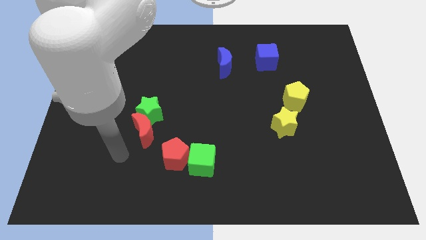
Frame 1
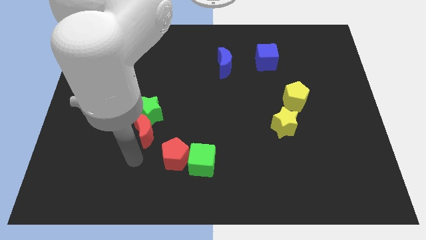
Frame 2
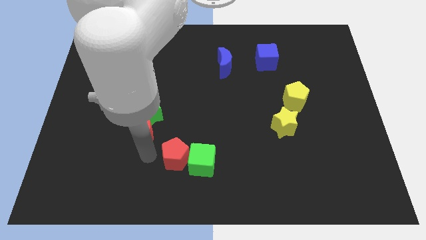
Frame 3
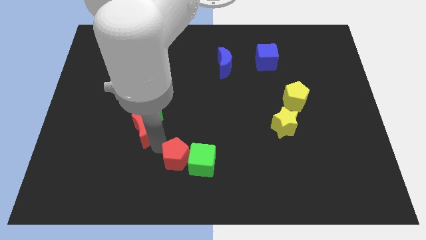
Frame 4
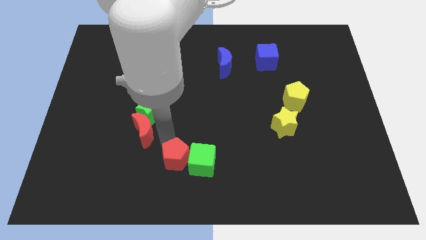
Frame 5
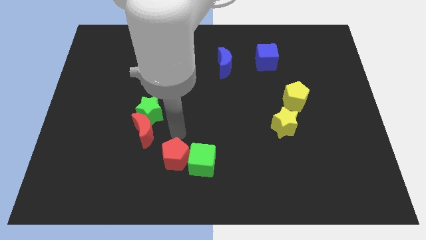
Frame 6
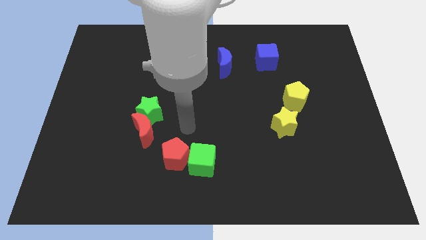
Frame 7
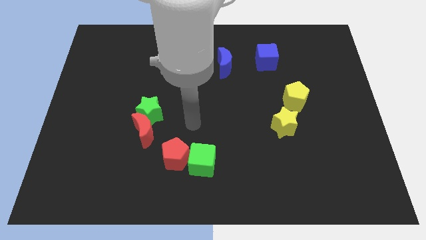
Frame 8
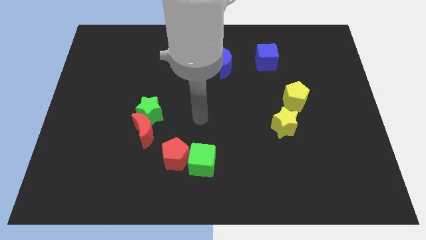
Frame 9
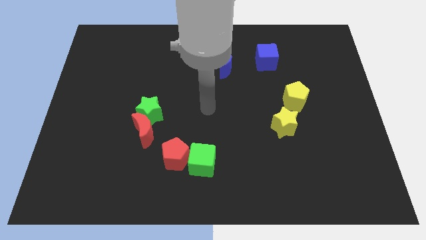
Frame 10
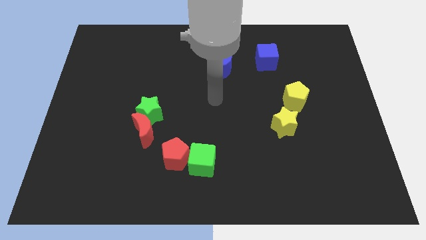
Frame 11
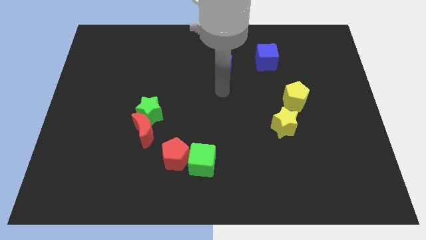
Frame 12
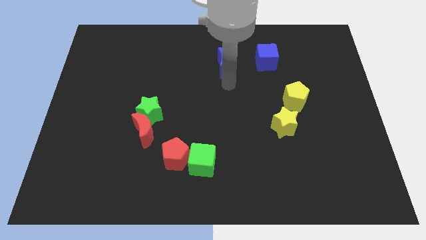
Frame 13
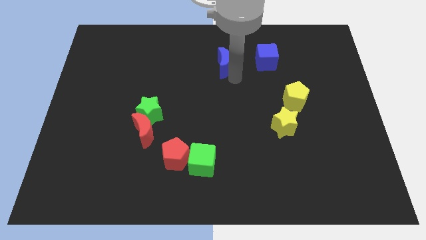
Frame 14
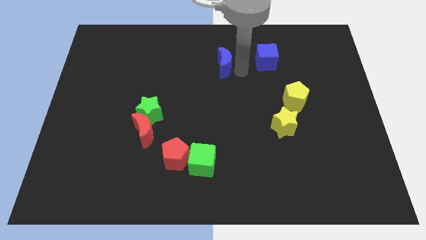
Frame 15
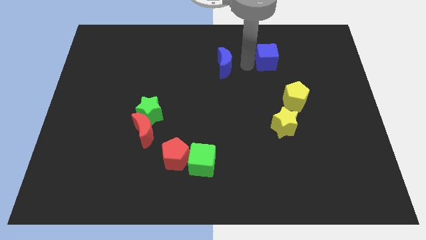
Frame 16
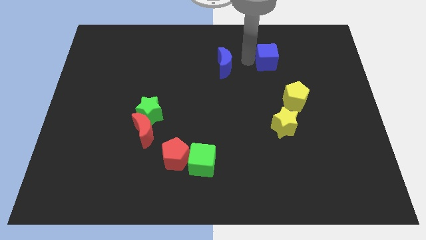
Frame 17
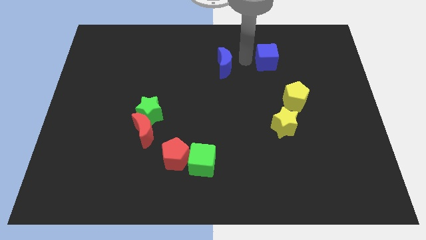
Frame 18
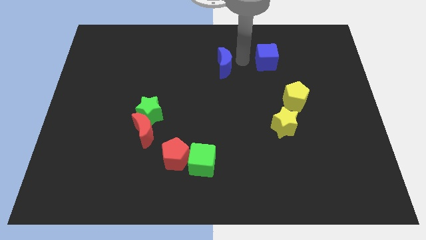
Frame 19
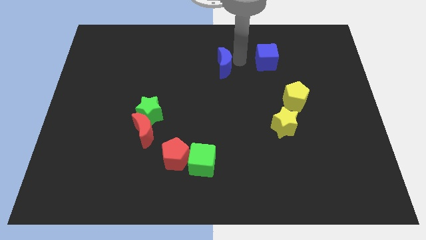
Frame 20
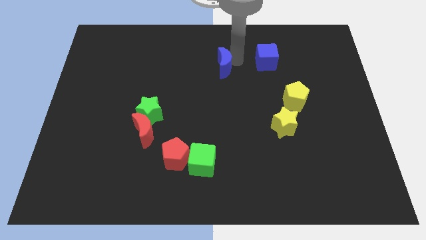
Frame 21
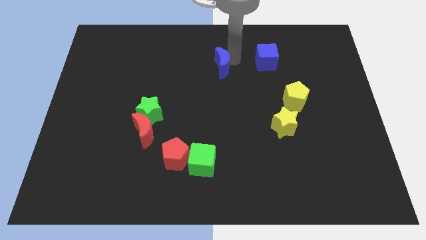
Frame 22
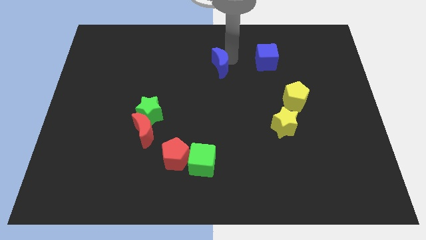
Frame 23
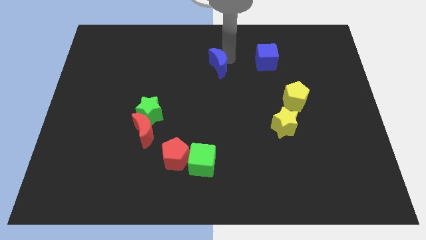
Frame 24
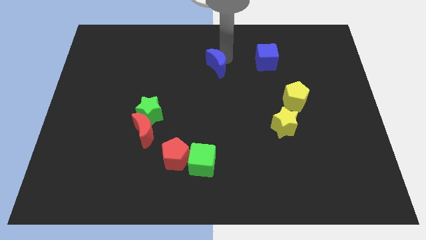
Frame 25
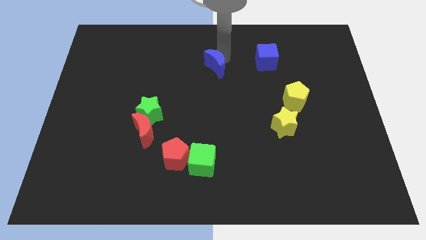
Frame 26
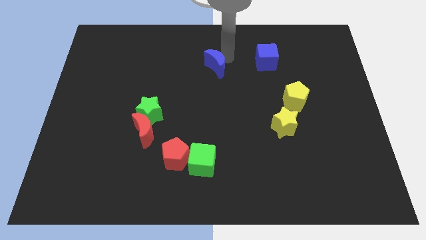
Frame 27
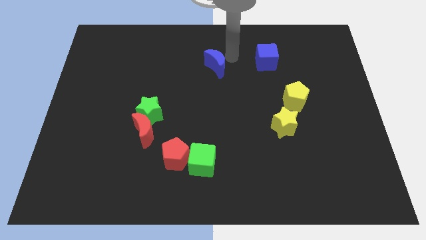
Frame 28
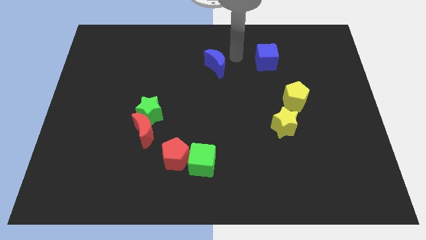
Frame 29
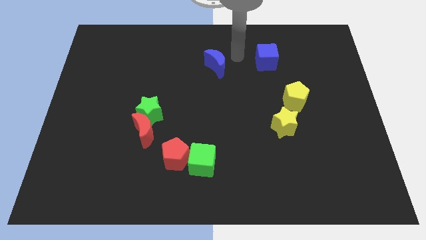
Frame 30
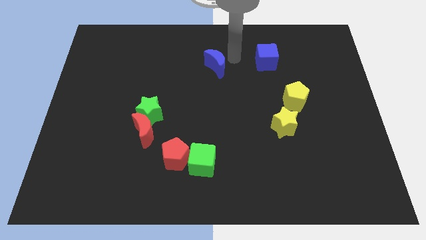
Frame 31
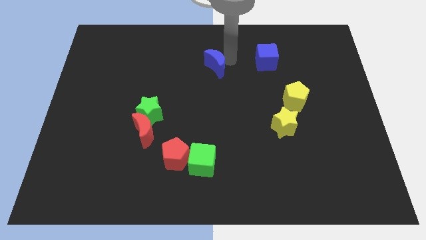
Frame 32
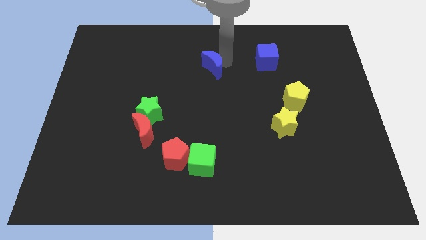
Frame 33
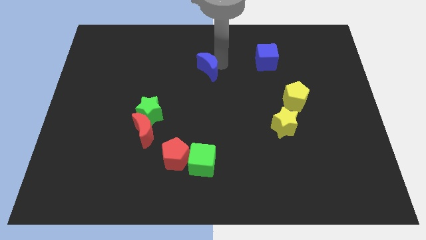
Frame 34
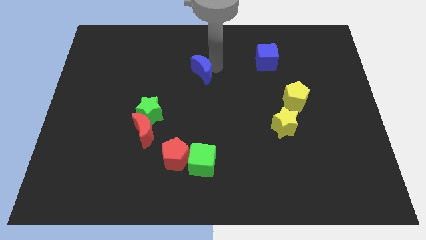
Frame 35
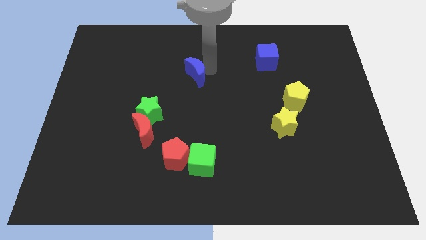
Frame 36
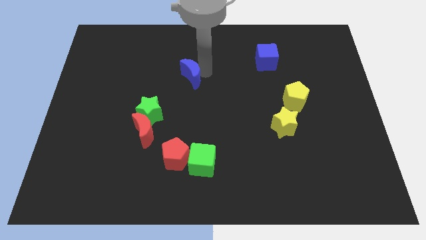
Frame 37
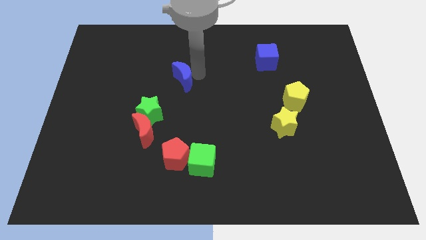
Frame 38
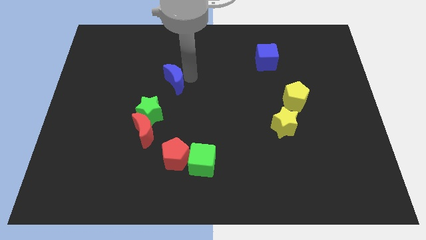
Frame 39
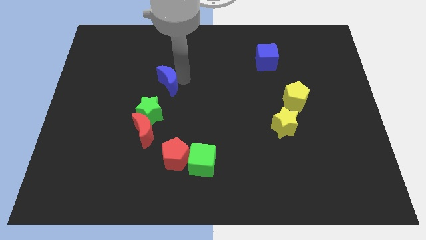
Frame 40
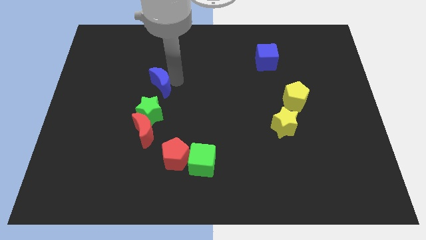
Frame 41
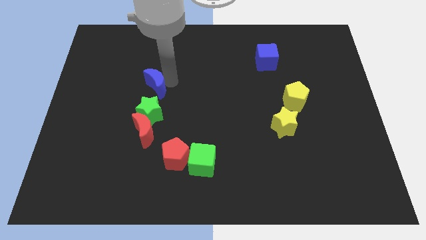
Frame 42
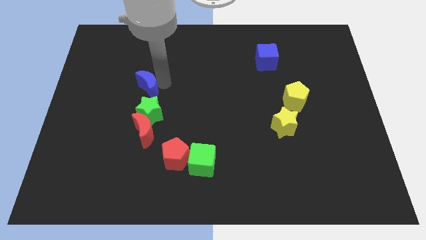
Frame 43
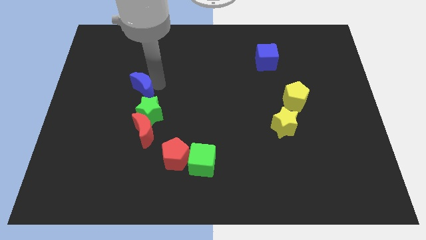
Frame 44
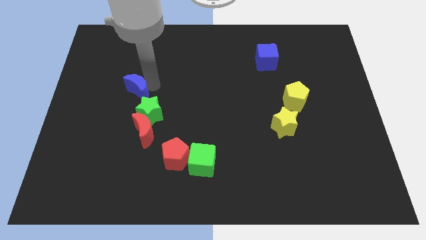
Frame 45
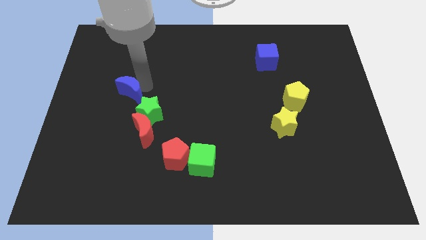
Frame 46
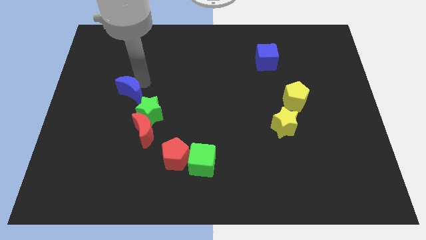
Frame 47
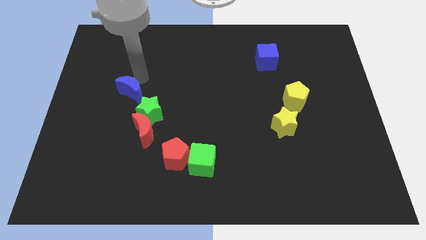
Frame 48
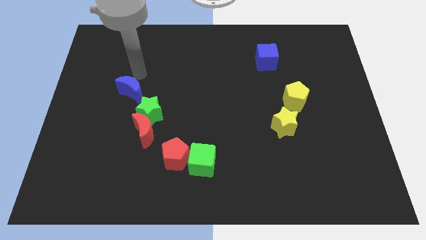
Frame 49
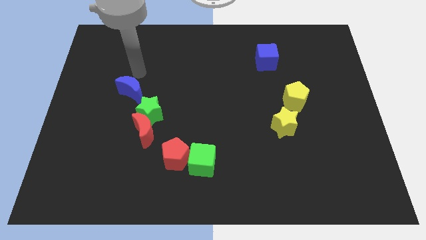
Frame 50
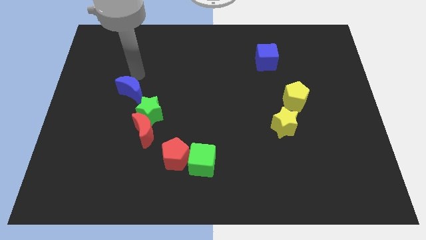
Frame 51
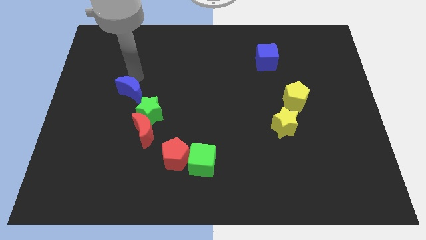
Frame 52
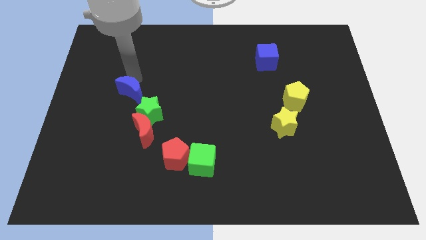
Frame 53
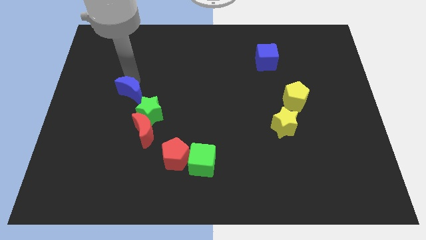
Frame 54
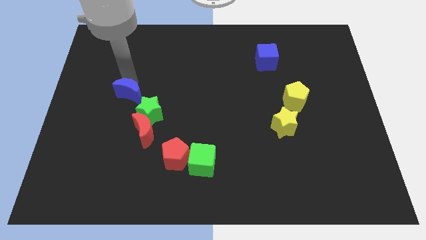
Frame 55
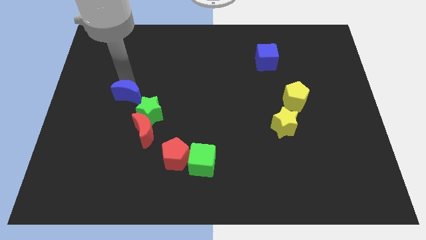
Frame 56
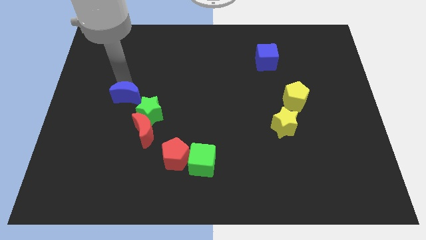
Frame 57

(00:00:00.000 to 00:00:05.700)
put the blue moon to the top left side of the red moon

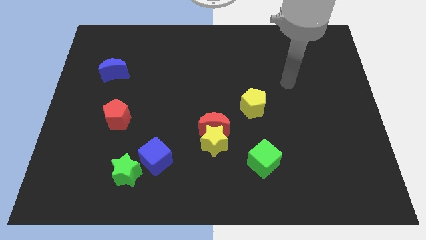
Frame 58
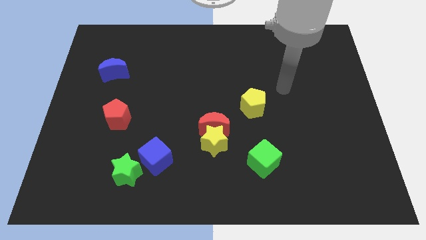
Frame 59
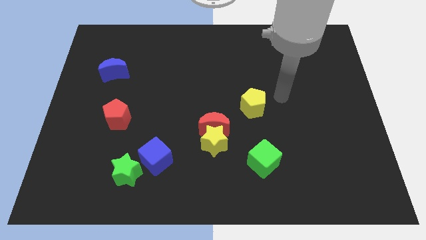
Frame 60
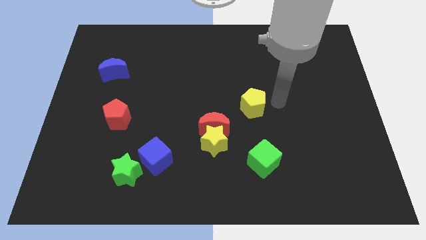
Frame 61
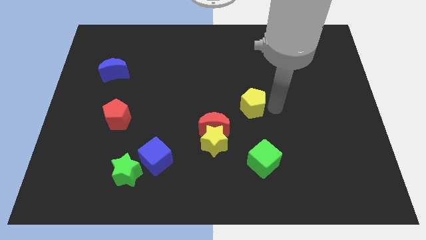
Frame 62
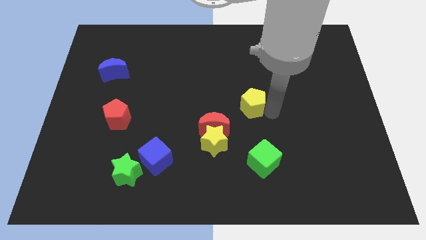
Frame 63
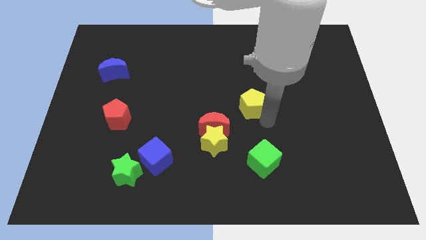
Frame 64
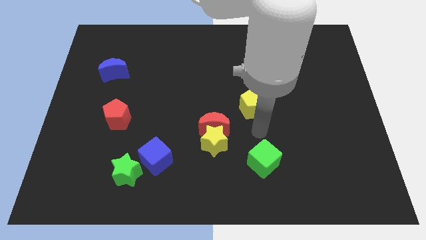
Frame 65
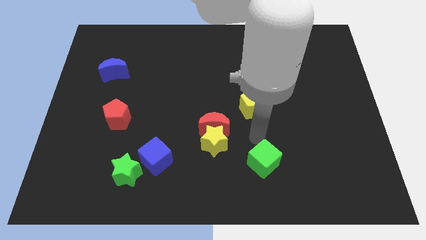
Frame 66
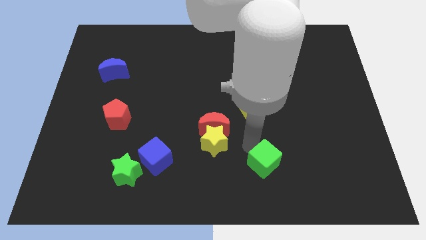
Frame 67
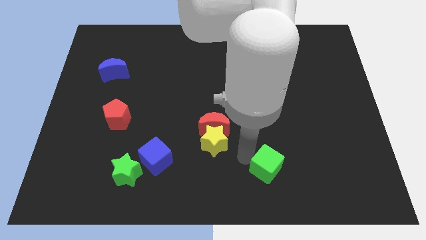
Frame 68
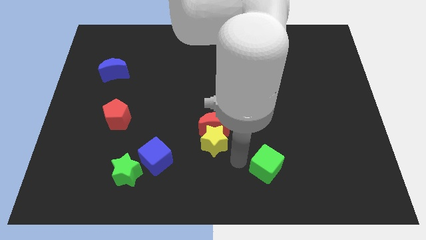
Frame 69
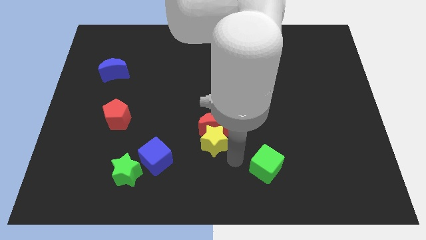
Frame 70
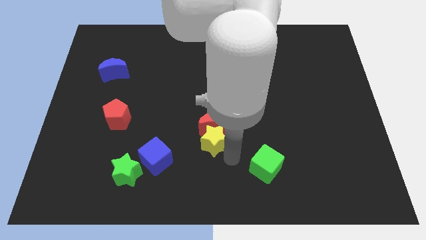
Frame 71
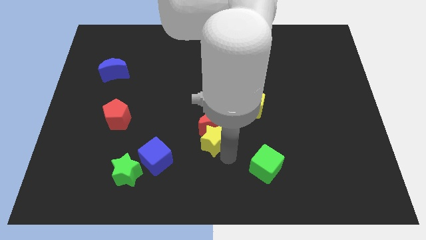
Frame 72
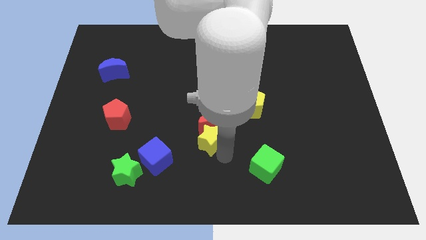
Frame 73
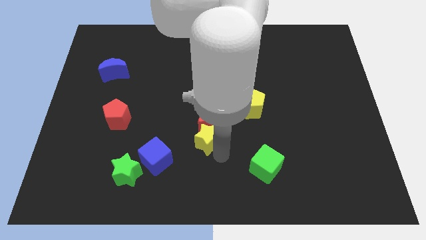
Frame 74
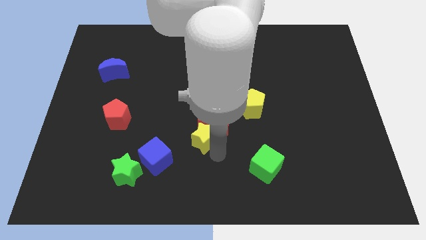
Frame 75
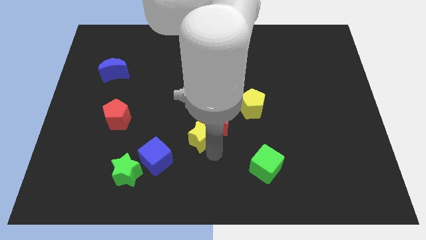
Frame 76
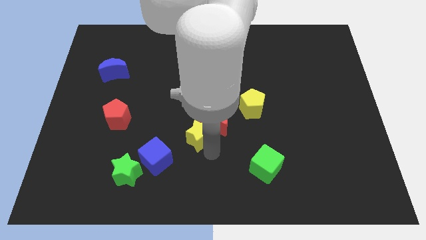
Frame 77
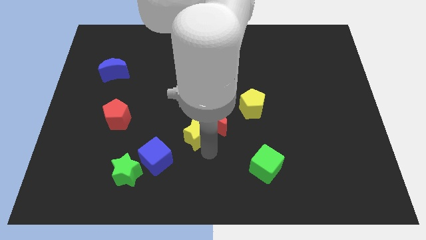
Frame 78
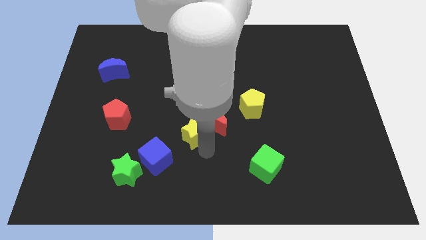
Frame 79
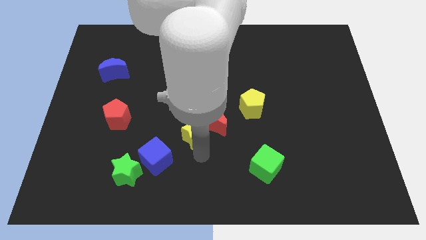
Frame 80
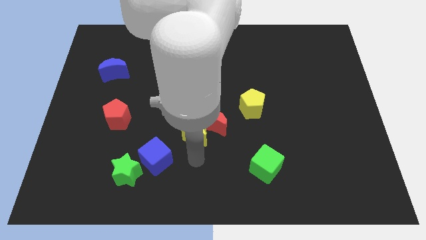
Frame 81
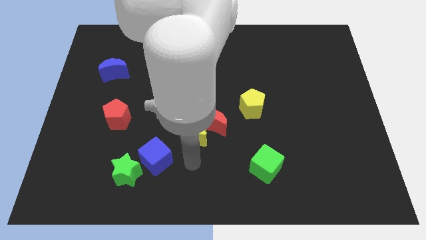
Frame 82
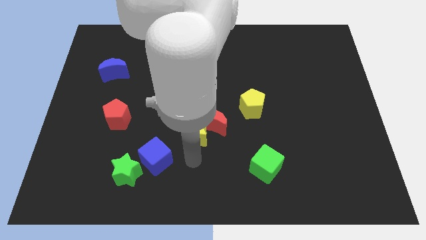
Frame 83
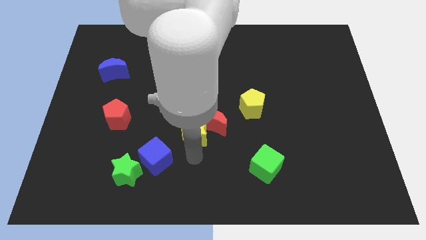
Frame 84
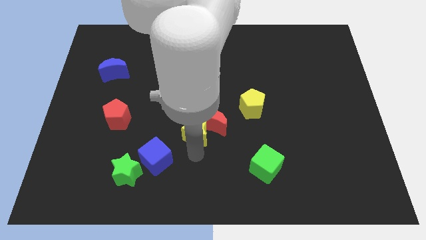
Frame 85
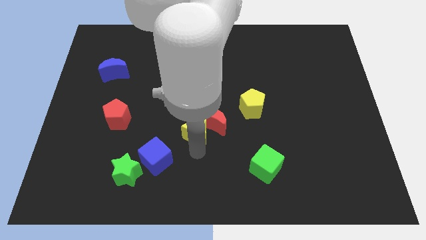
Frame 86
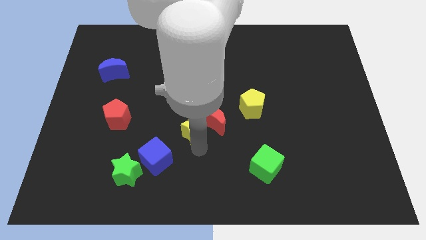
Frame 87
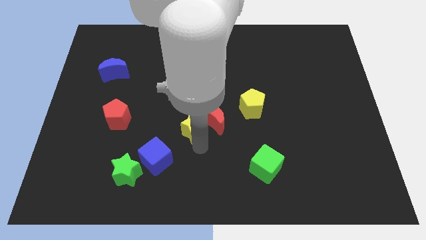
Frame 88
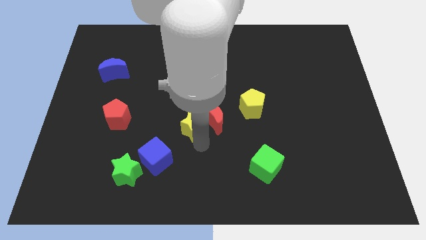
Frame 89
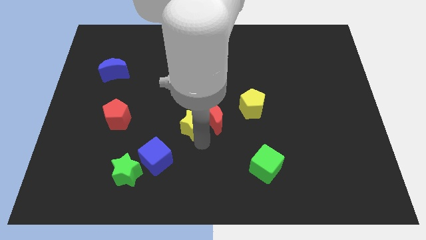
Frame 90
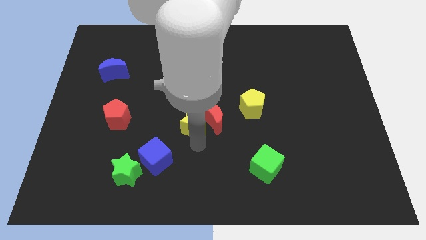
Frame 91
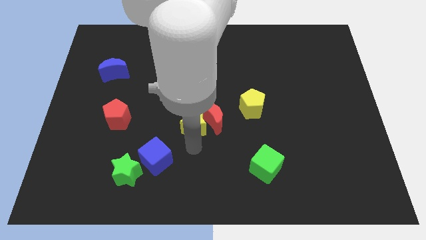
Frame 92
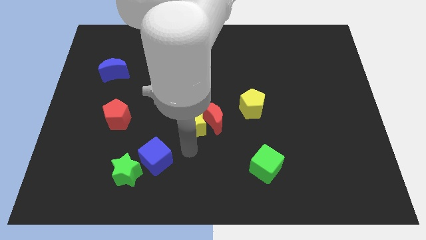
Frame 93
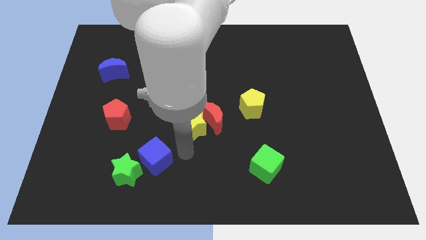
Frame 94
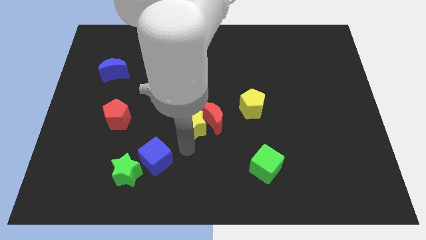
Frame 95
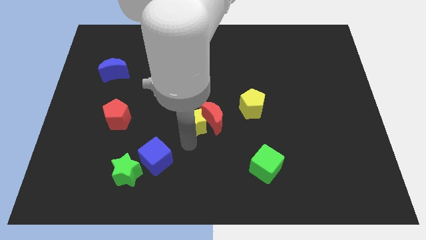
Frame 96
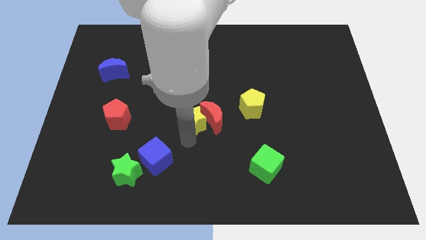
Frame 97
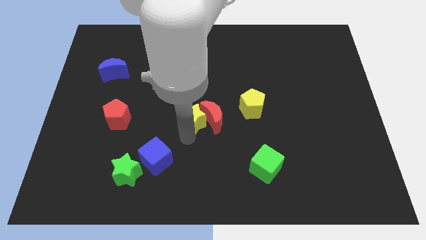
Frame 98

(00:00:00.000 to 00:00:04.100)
slide the yellow star to the left of the yellow pentagon
